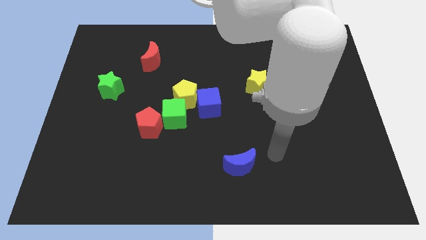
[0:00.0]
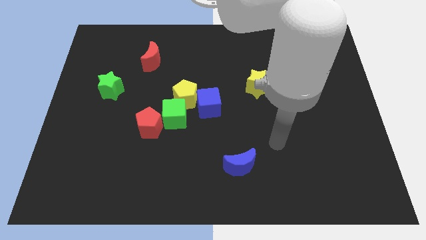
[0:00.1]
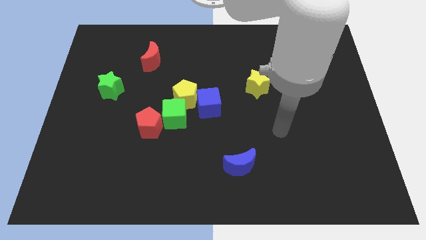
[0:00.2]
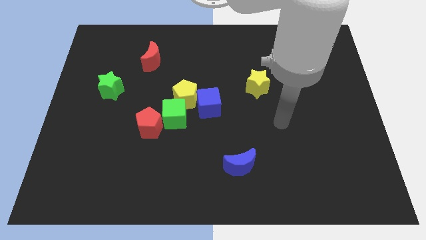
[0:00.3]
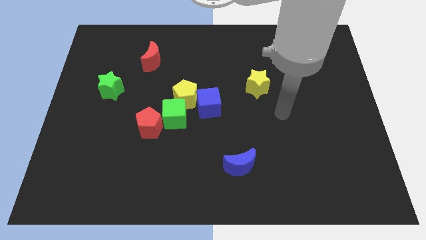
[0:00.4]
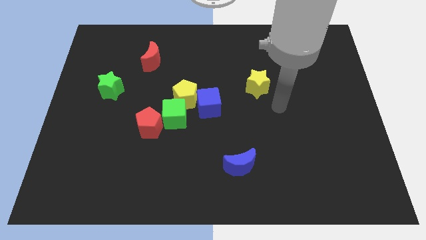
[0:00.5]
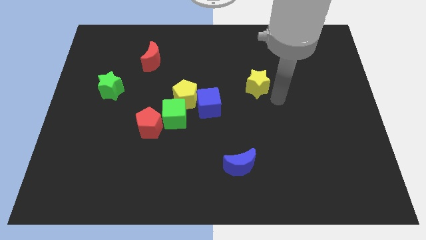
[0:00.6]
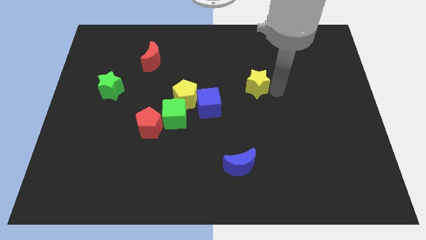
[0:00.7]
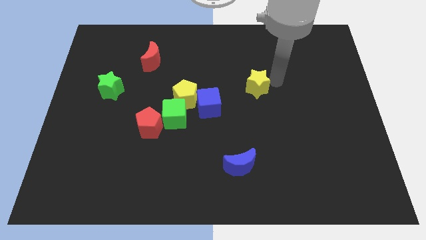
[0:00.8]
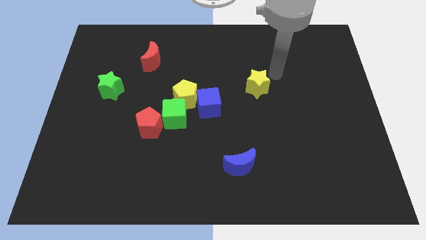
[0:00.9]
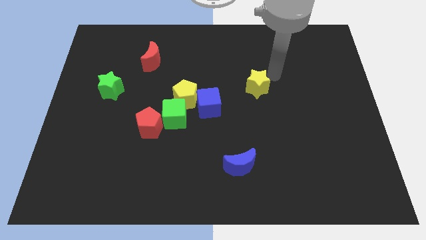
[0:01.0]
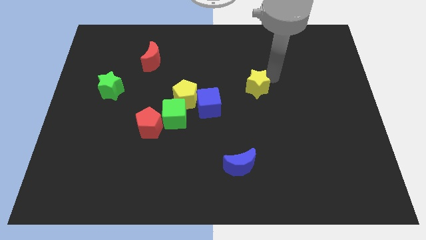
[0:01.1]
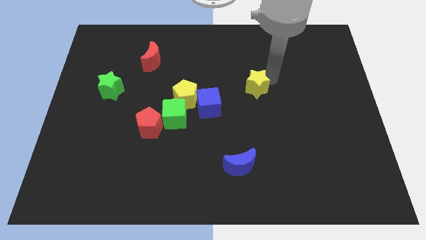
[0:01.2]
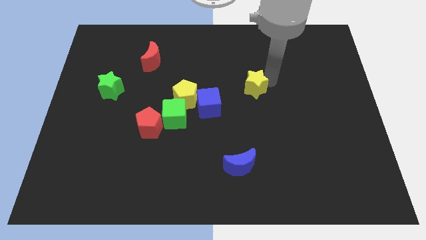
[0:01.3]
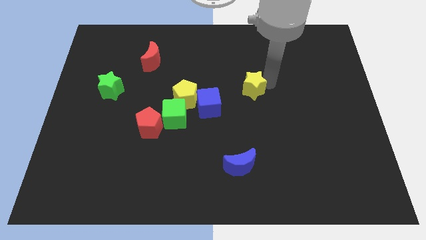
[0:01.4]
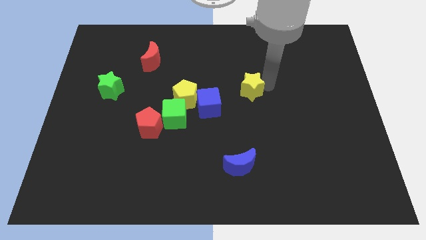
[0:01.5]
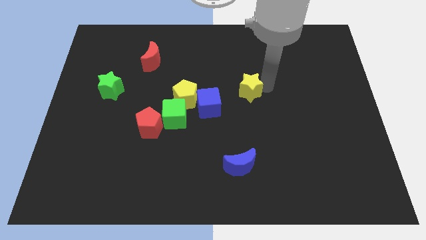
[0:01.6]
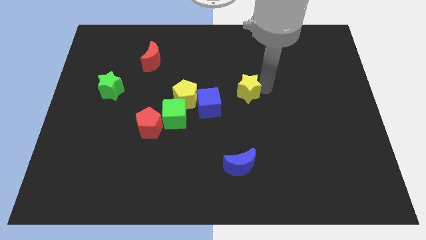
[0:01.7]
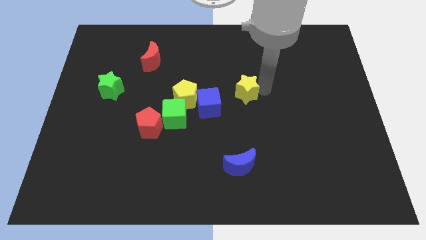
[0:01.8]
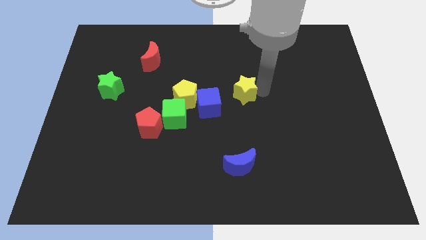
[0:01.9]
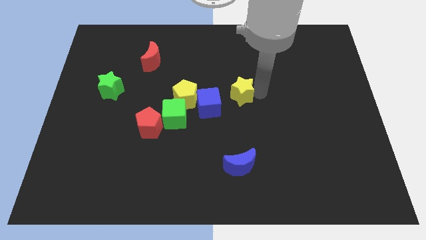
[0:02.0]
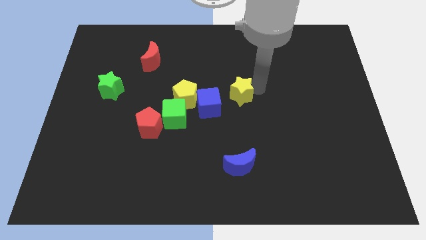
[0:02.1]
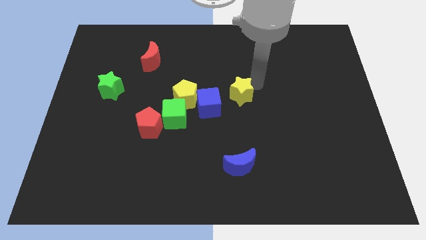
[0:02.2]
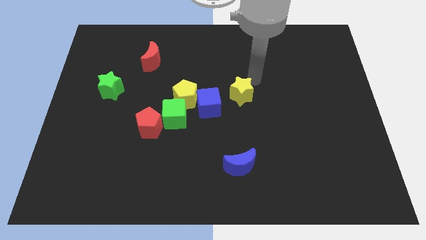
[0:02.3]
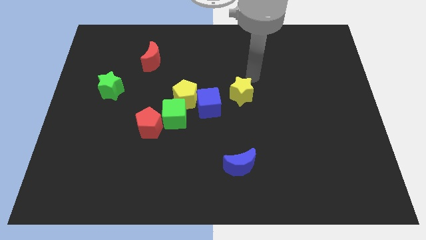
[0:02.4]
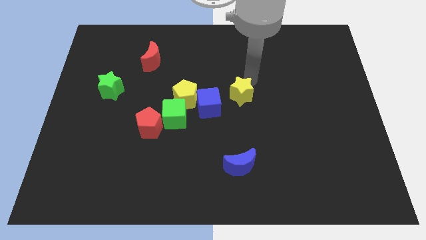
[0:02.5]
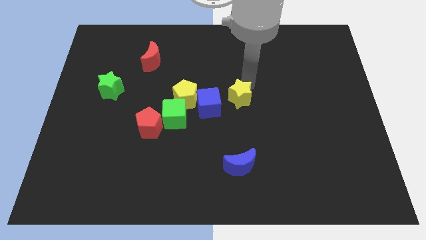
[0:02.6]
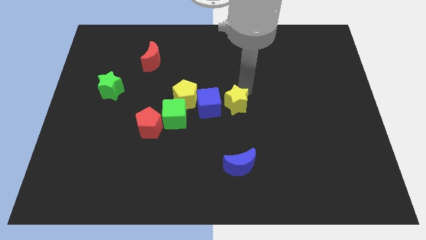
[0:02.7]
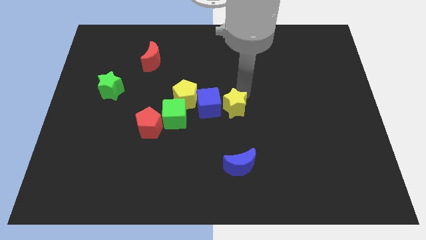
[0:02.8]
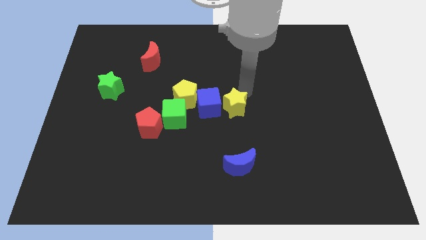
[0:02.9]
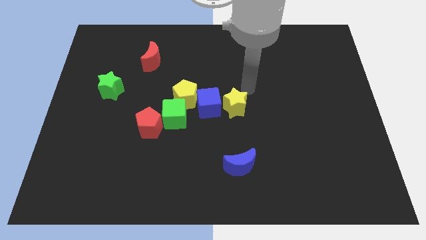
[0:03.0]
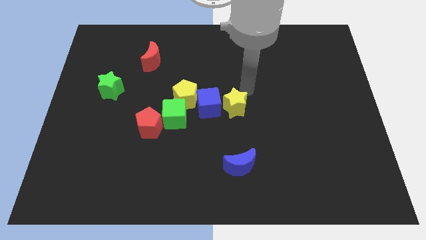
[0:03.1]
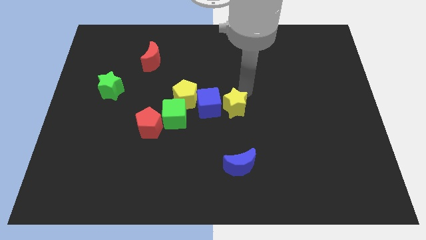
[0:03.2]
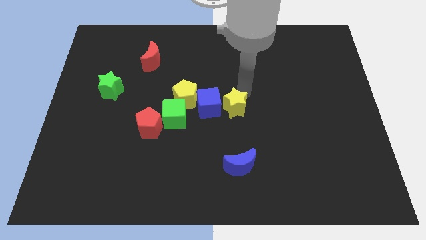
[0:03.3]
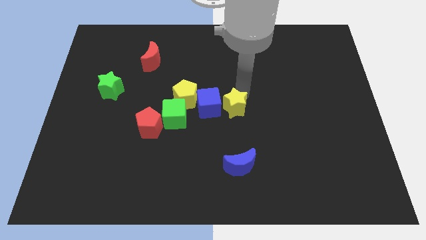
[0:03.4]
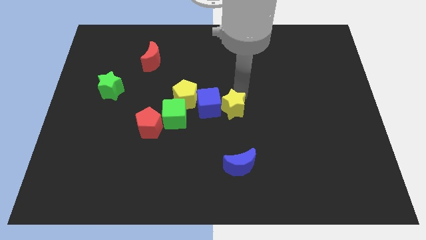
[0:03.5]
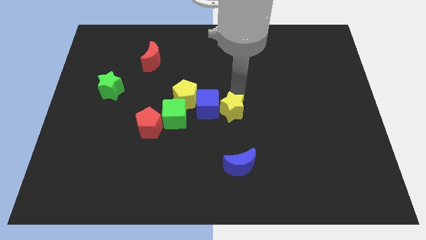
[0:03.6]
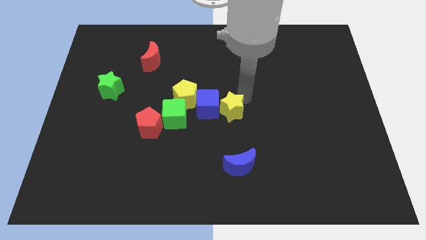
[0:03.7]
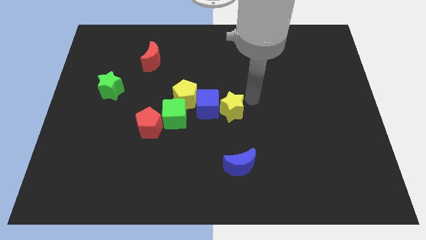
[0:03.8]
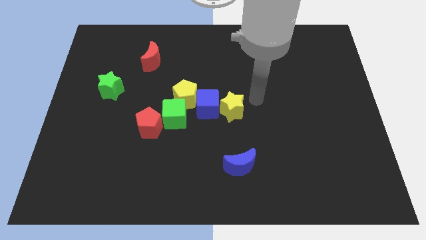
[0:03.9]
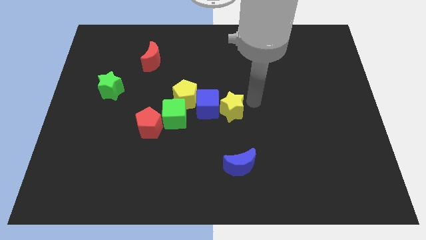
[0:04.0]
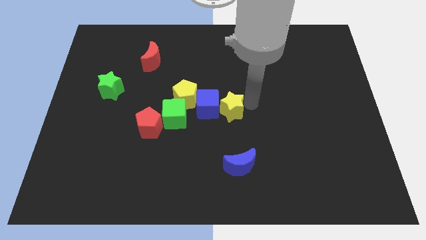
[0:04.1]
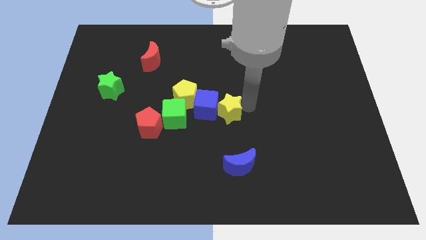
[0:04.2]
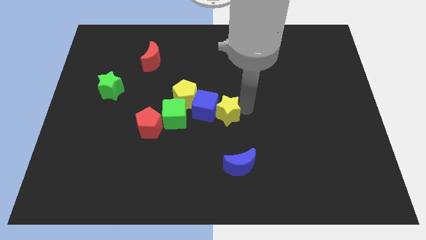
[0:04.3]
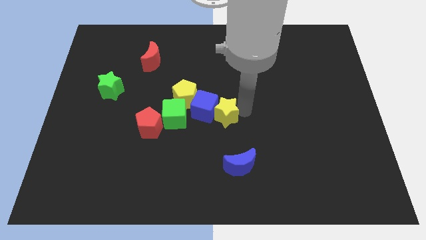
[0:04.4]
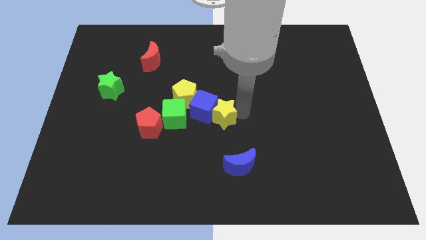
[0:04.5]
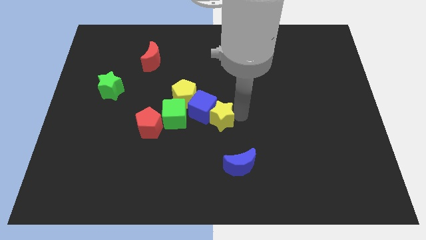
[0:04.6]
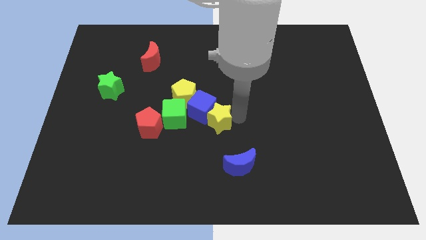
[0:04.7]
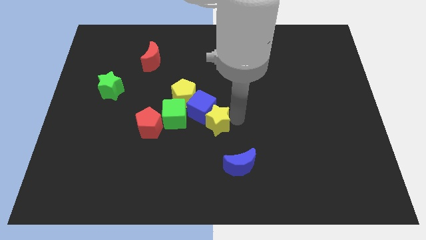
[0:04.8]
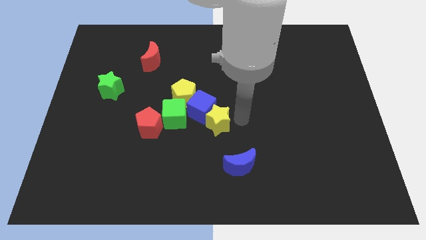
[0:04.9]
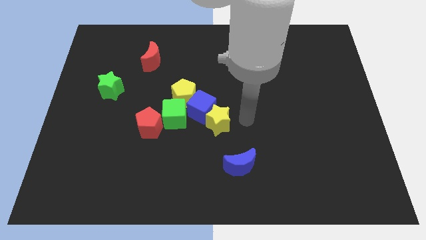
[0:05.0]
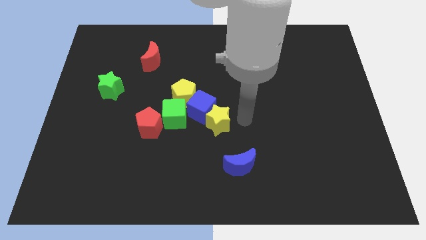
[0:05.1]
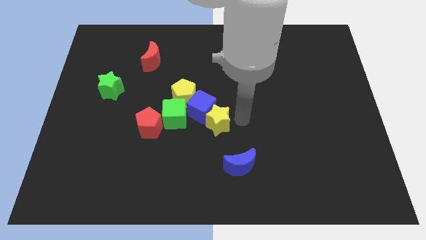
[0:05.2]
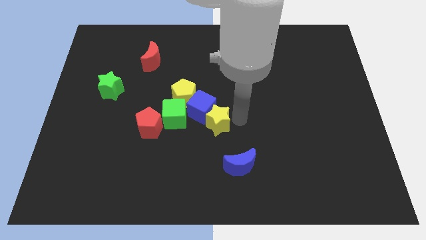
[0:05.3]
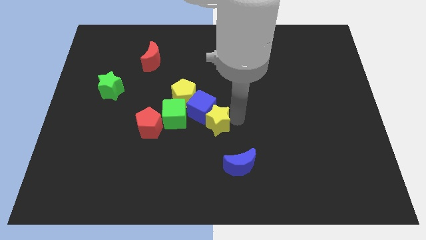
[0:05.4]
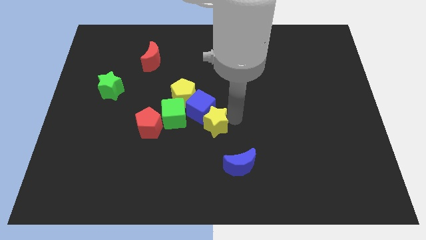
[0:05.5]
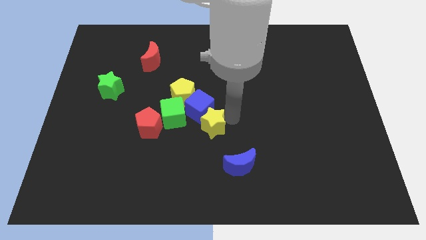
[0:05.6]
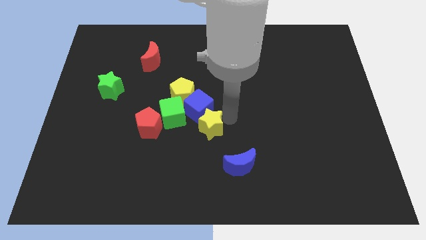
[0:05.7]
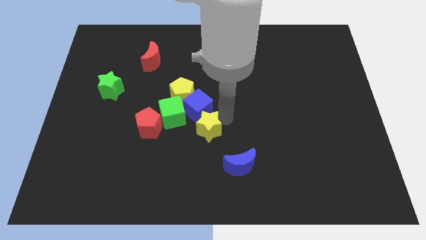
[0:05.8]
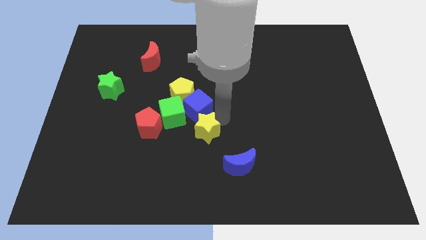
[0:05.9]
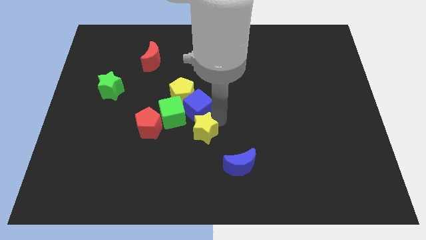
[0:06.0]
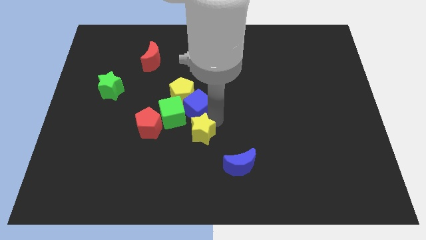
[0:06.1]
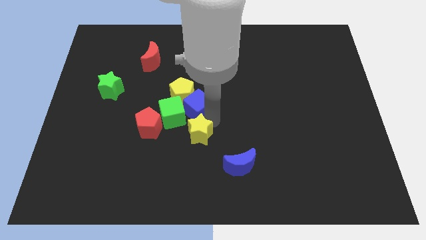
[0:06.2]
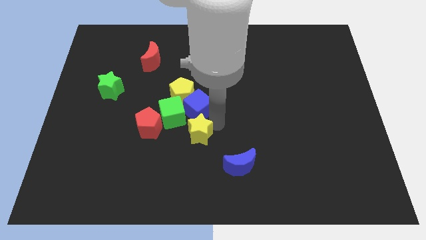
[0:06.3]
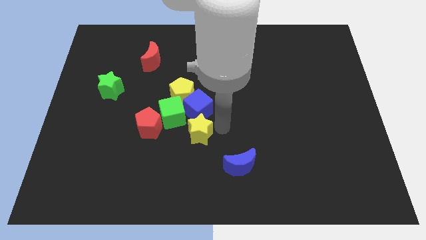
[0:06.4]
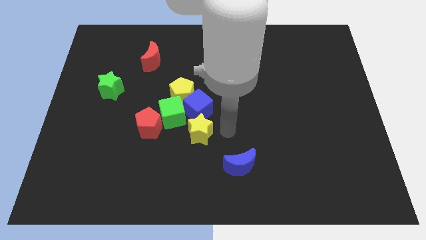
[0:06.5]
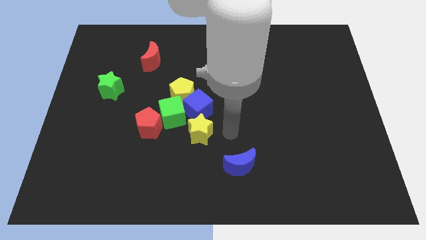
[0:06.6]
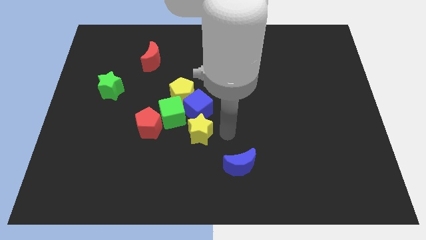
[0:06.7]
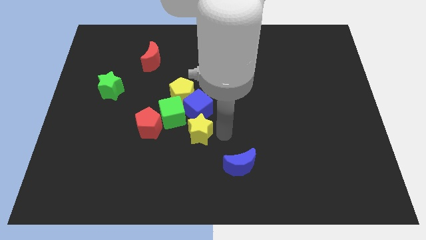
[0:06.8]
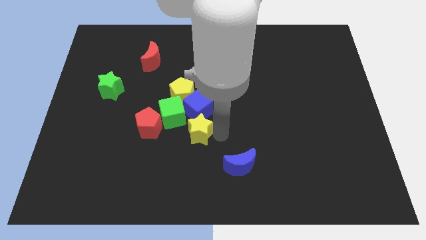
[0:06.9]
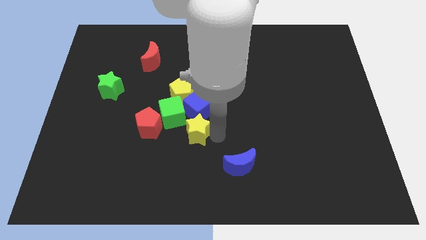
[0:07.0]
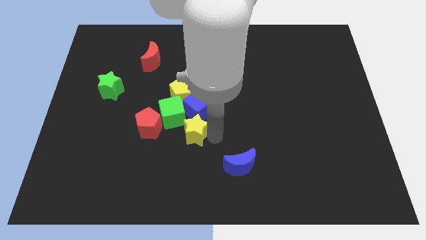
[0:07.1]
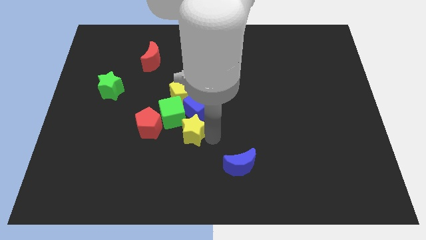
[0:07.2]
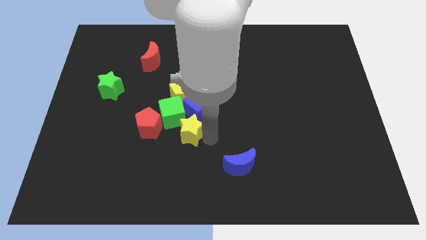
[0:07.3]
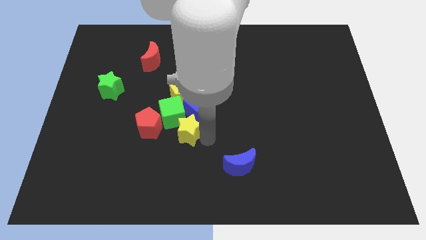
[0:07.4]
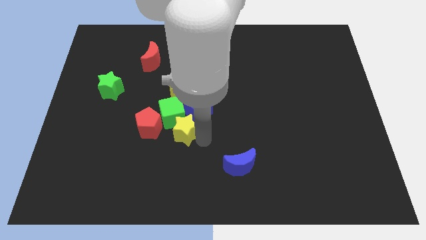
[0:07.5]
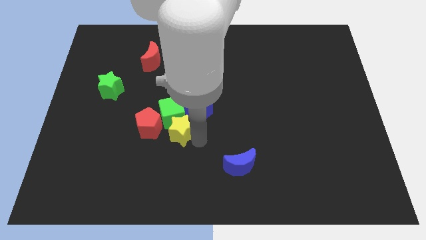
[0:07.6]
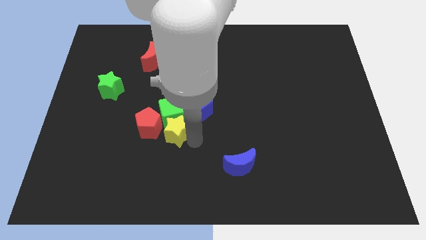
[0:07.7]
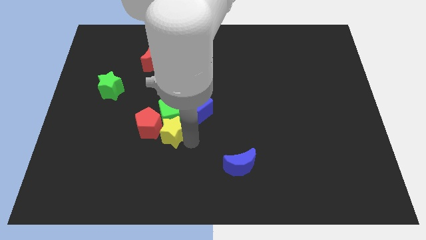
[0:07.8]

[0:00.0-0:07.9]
move the yellow star to the red pentagon
